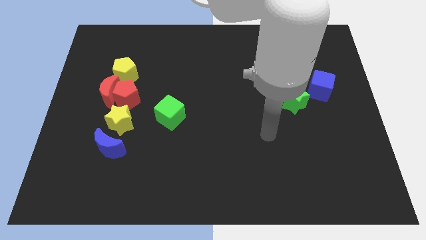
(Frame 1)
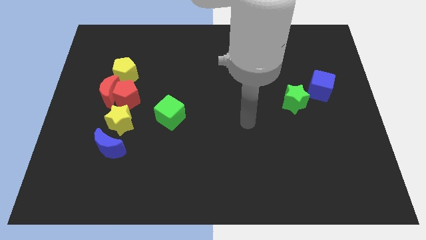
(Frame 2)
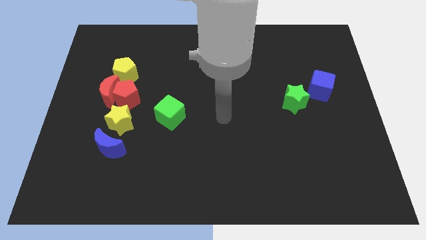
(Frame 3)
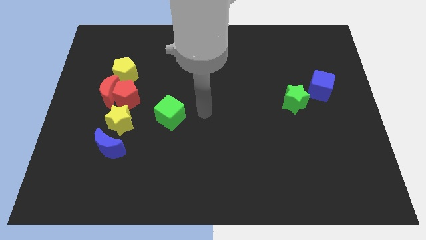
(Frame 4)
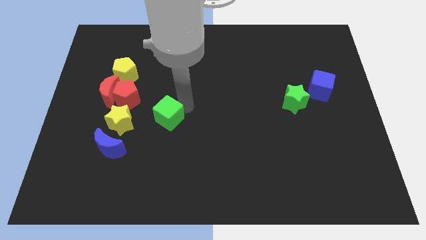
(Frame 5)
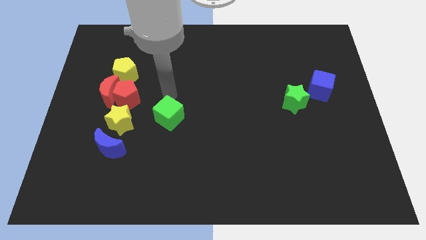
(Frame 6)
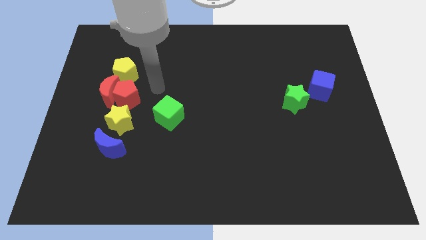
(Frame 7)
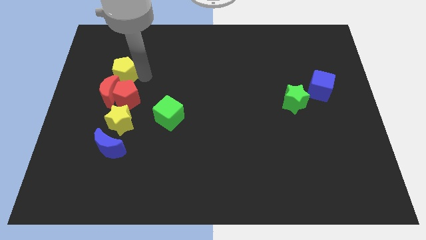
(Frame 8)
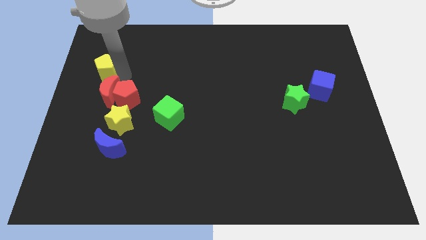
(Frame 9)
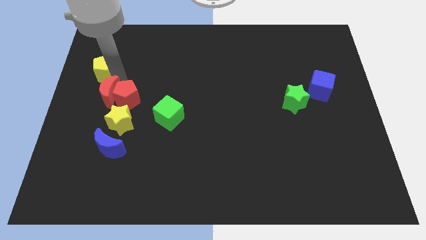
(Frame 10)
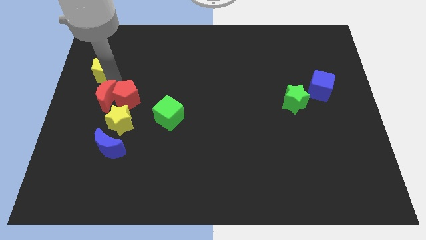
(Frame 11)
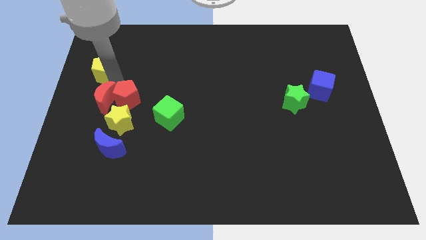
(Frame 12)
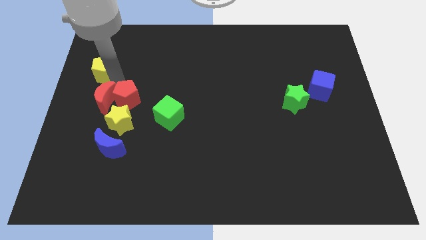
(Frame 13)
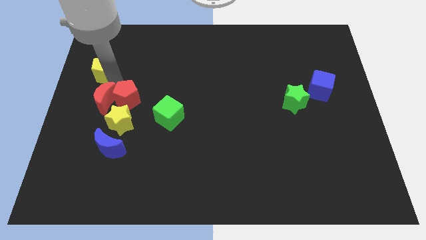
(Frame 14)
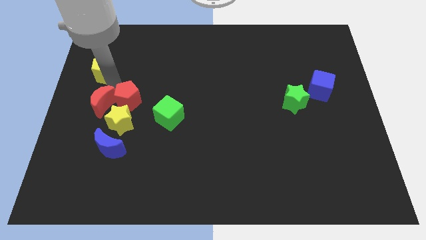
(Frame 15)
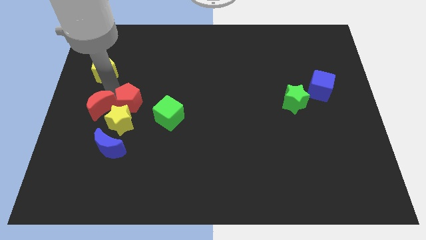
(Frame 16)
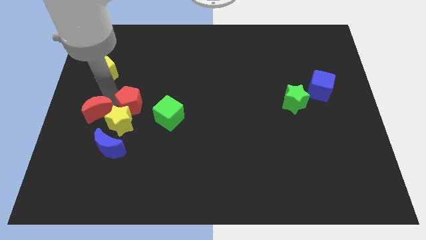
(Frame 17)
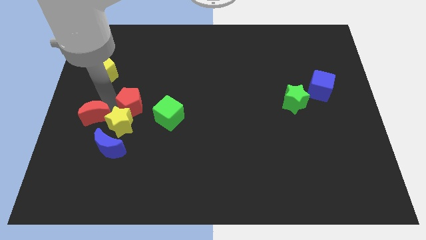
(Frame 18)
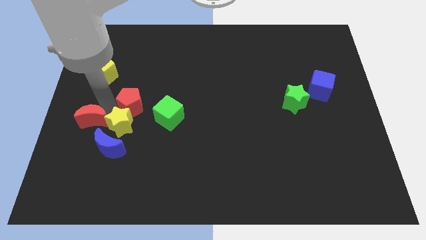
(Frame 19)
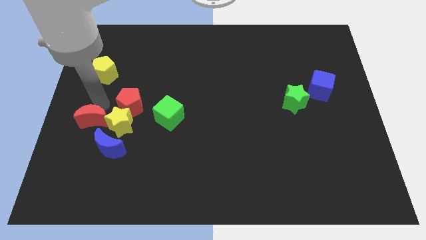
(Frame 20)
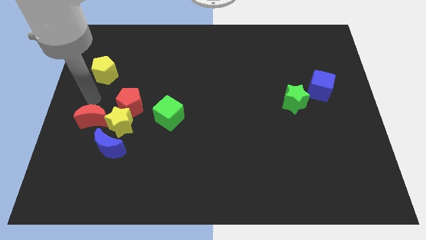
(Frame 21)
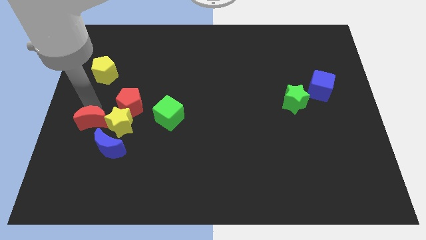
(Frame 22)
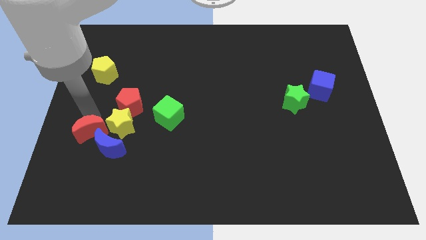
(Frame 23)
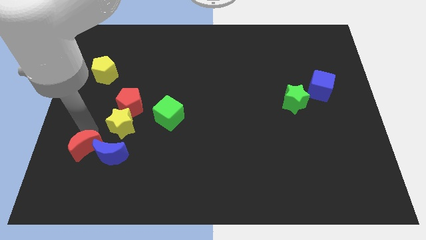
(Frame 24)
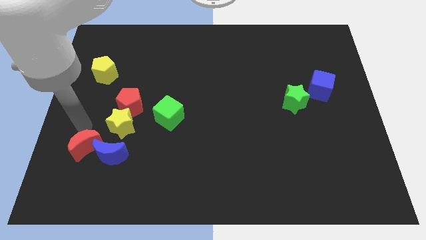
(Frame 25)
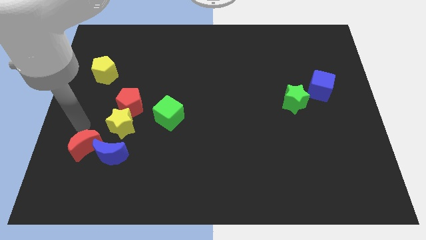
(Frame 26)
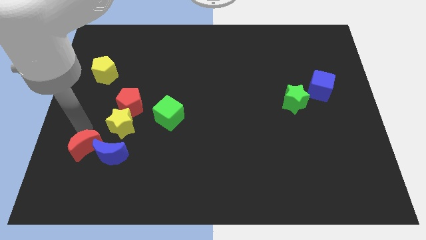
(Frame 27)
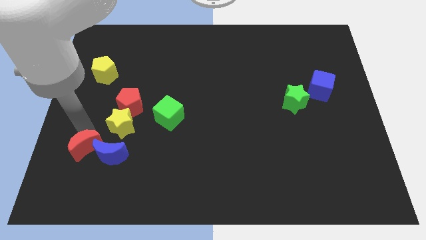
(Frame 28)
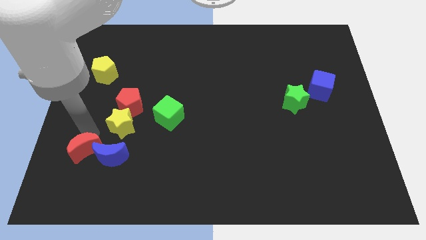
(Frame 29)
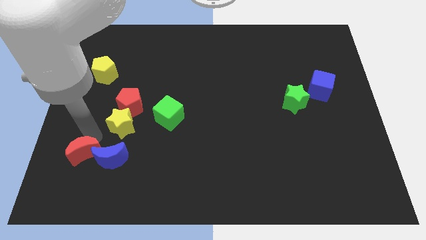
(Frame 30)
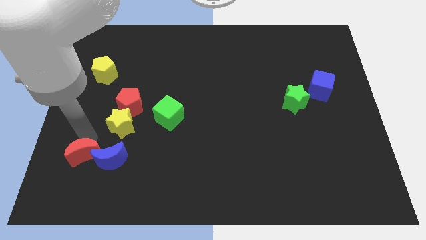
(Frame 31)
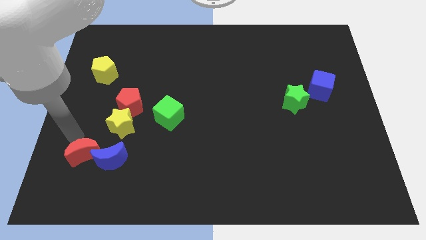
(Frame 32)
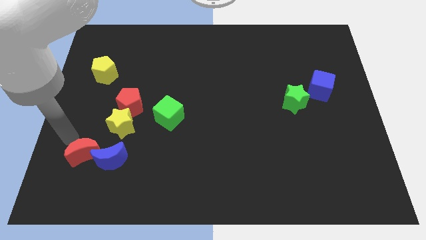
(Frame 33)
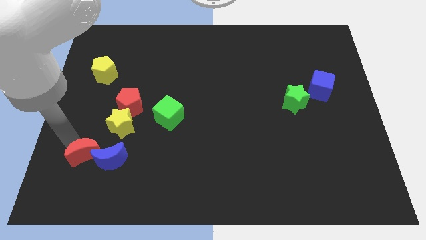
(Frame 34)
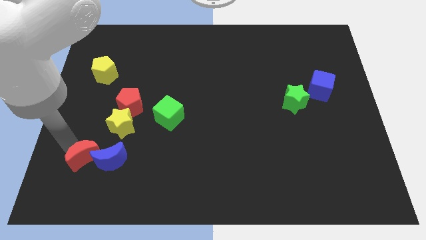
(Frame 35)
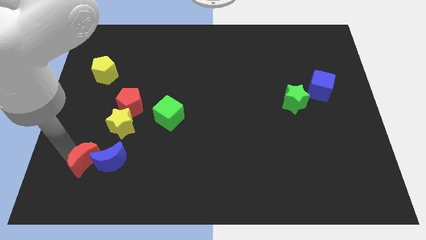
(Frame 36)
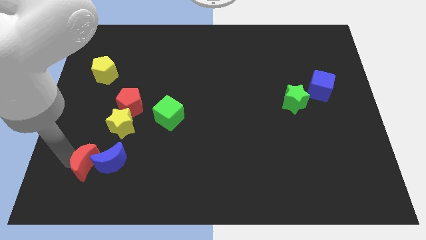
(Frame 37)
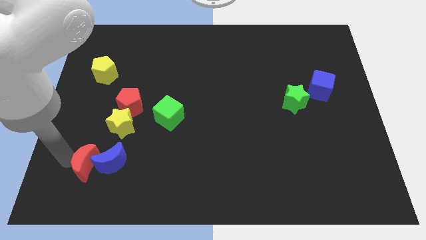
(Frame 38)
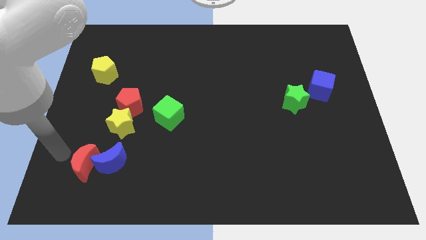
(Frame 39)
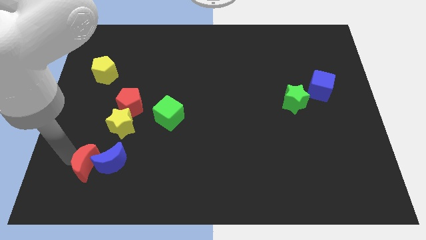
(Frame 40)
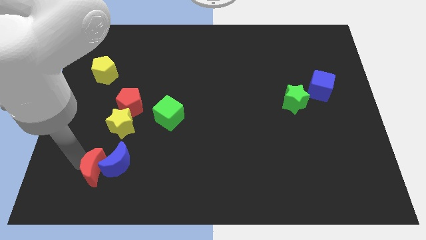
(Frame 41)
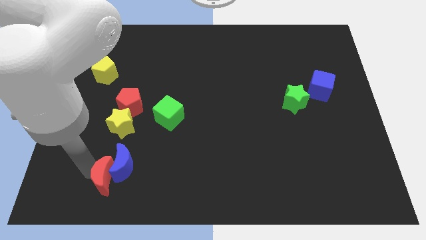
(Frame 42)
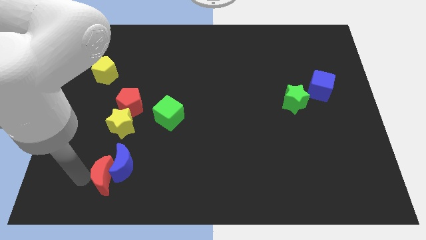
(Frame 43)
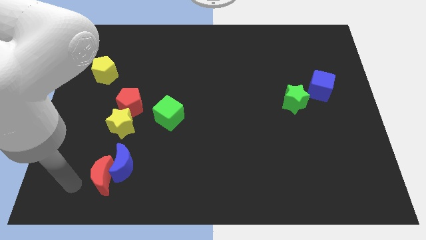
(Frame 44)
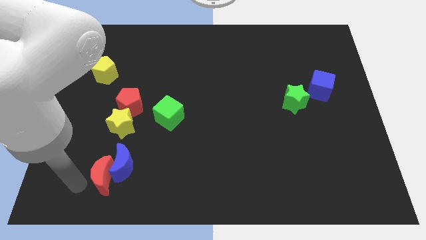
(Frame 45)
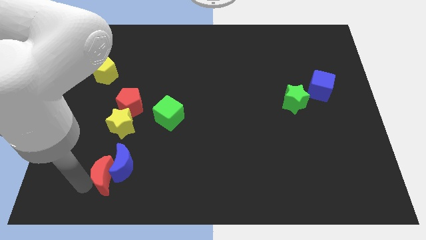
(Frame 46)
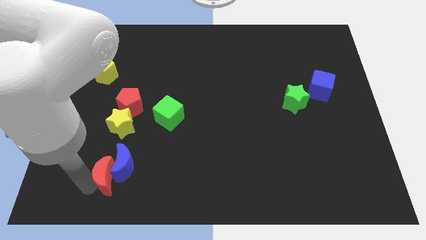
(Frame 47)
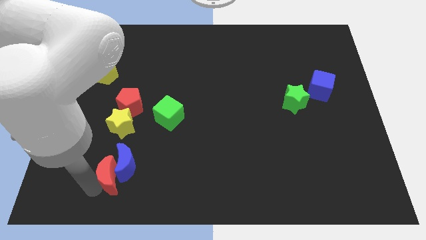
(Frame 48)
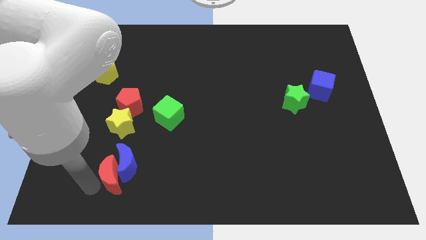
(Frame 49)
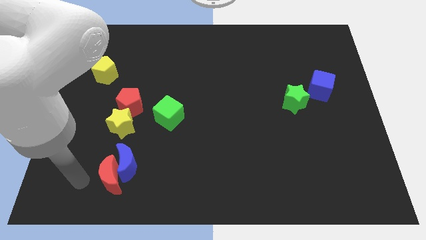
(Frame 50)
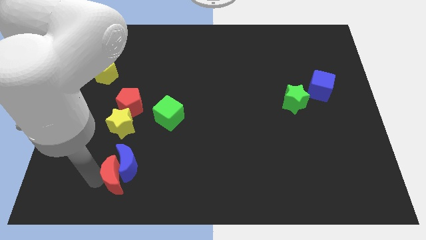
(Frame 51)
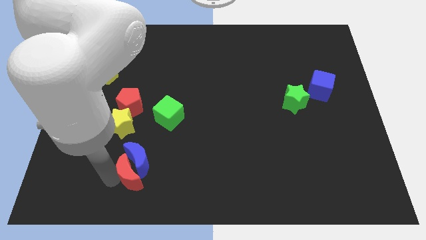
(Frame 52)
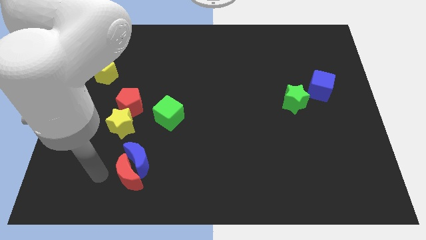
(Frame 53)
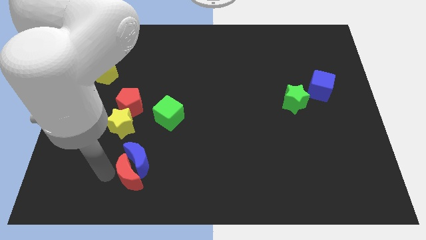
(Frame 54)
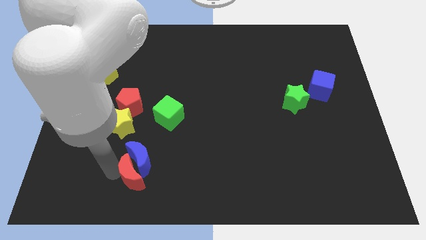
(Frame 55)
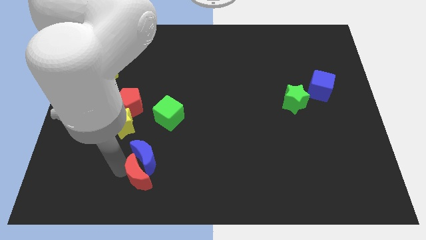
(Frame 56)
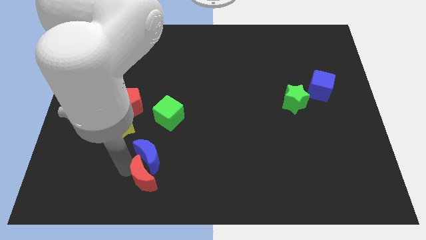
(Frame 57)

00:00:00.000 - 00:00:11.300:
push the red moon downwards and right diagonally

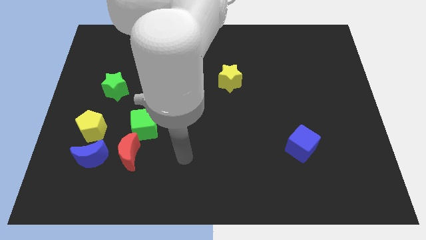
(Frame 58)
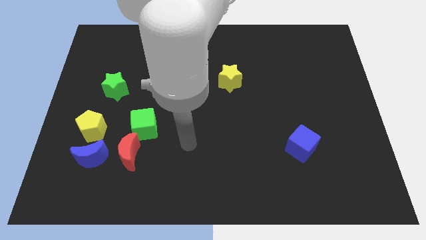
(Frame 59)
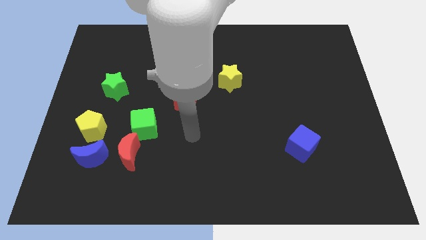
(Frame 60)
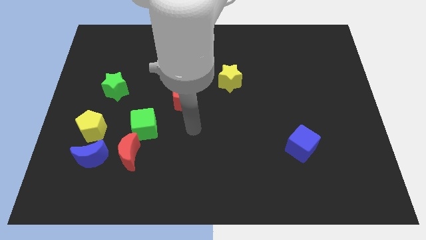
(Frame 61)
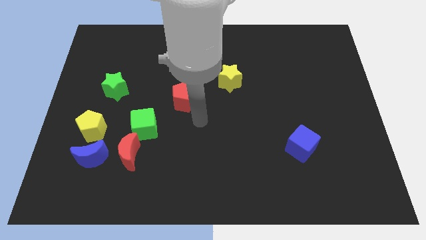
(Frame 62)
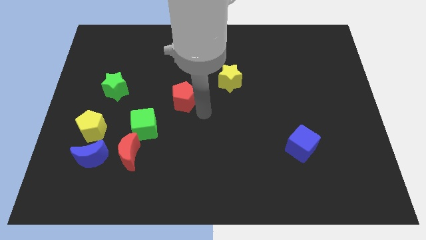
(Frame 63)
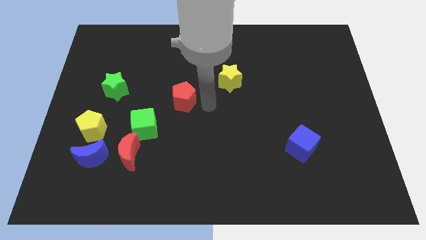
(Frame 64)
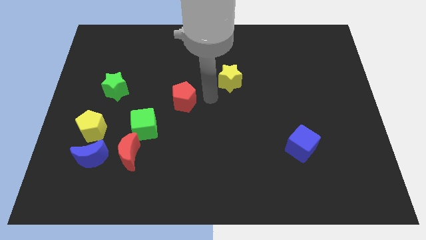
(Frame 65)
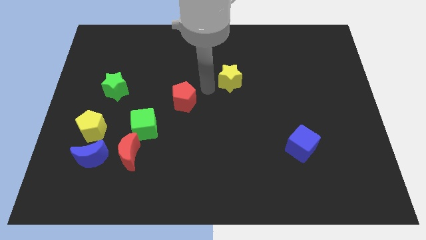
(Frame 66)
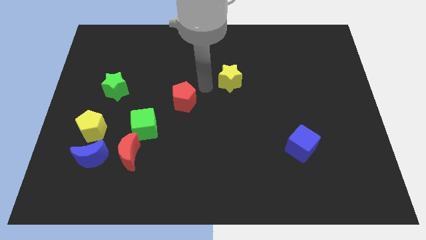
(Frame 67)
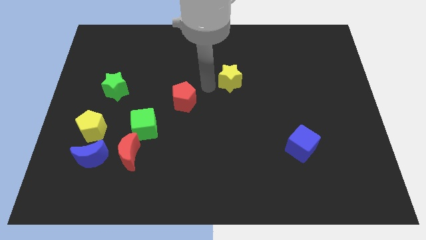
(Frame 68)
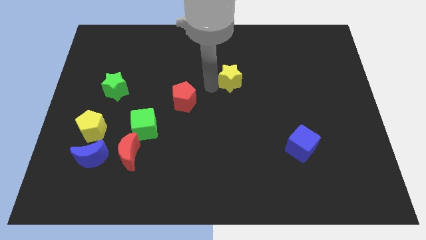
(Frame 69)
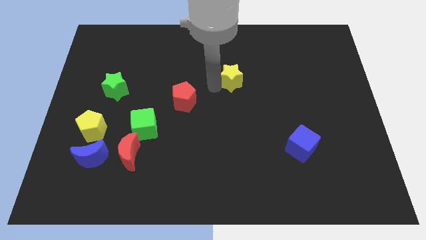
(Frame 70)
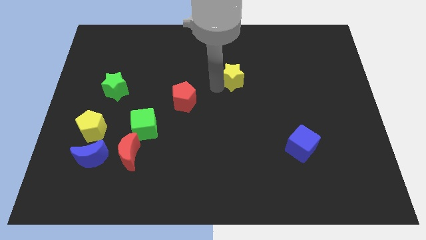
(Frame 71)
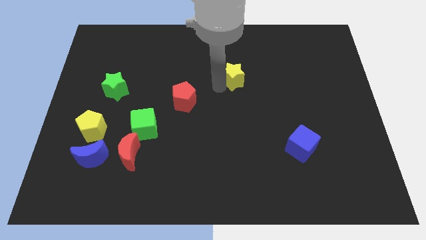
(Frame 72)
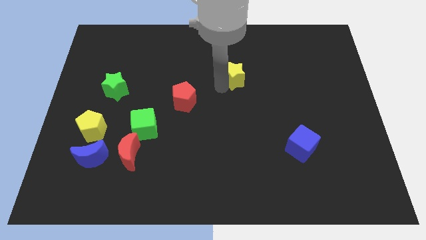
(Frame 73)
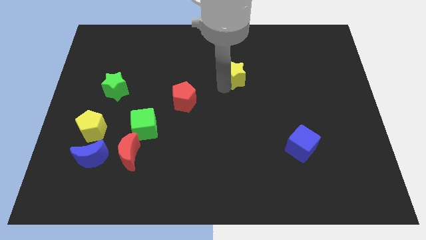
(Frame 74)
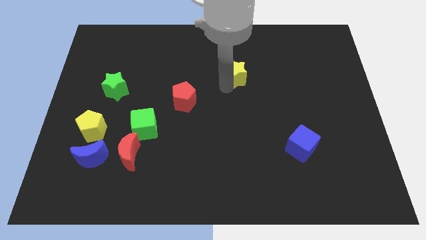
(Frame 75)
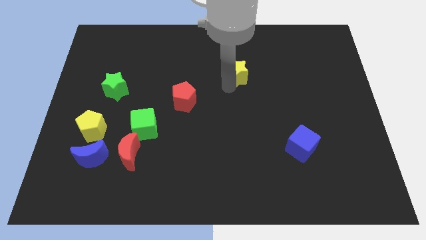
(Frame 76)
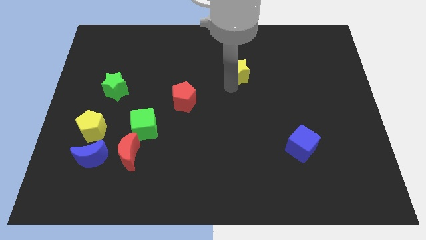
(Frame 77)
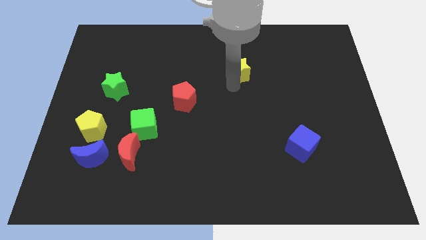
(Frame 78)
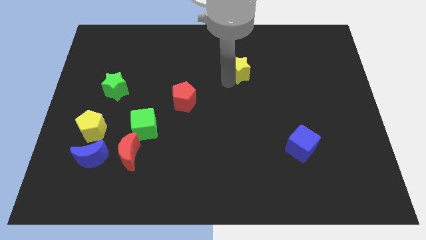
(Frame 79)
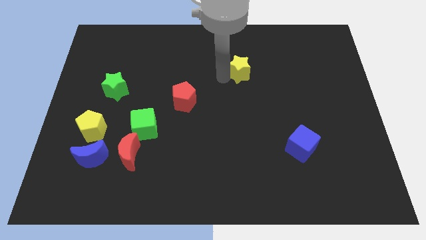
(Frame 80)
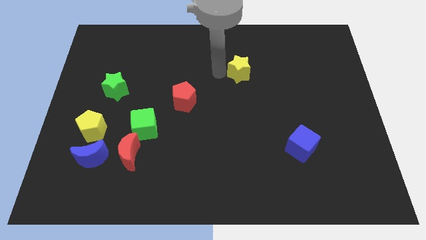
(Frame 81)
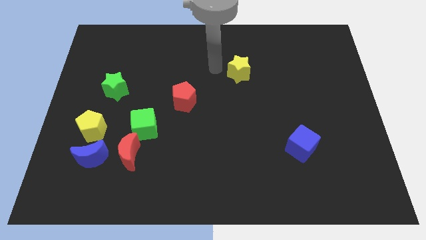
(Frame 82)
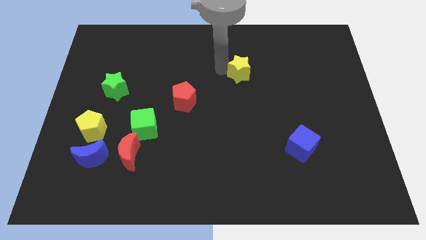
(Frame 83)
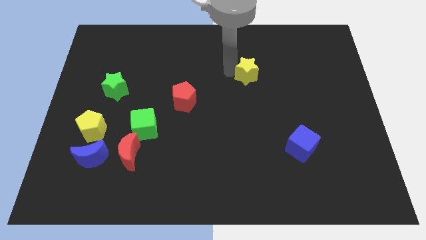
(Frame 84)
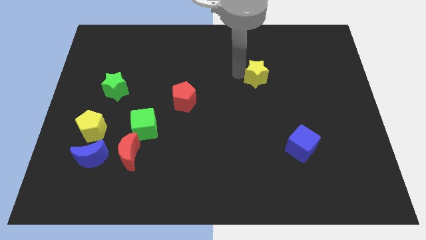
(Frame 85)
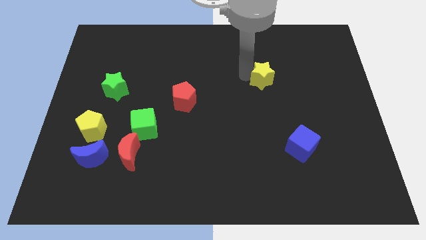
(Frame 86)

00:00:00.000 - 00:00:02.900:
slightly push the yellow star to the right
